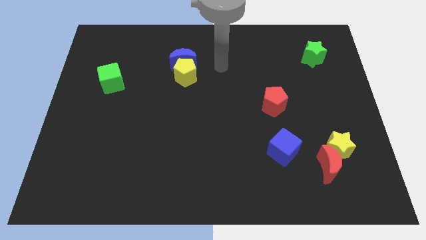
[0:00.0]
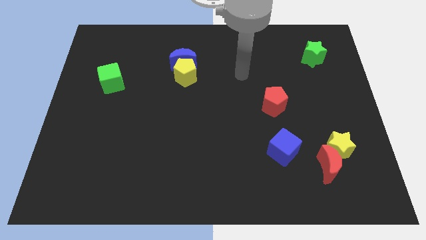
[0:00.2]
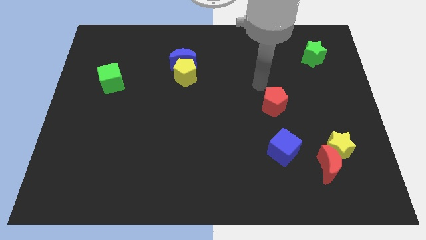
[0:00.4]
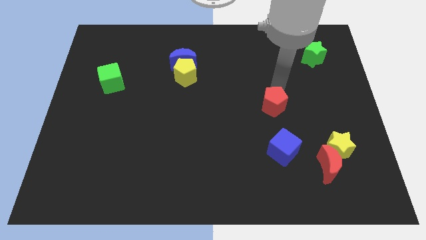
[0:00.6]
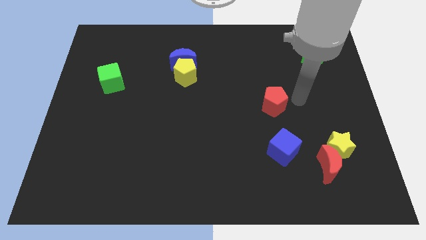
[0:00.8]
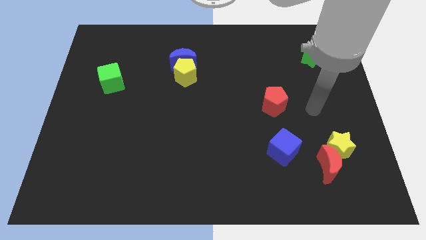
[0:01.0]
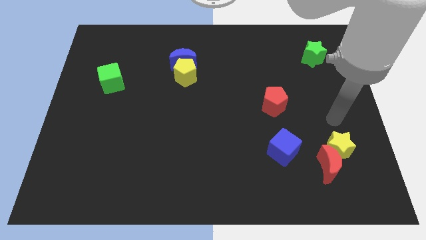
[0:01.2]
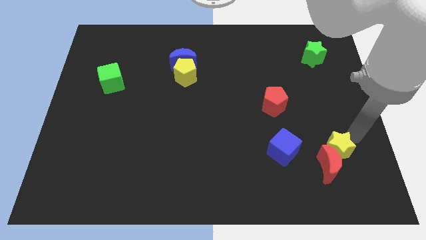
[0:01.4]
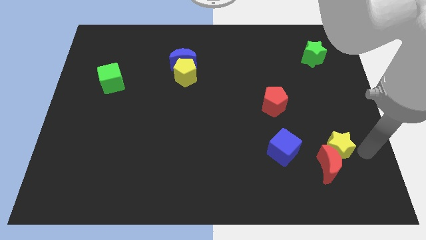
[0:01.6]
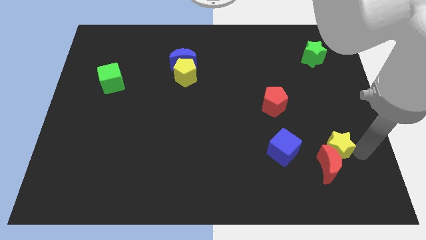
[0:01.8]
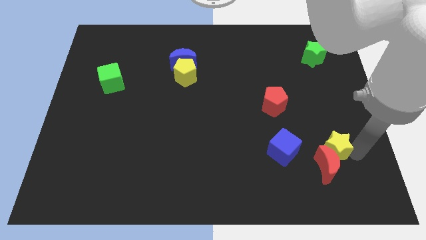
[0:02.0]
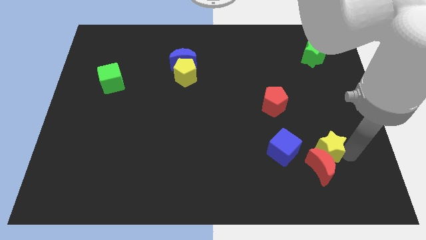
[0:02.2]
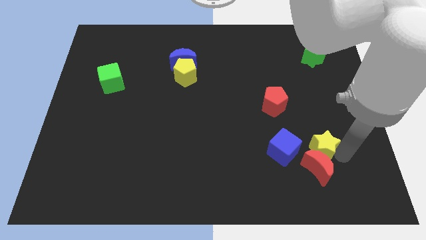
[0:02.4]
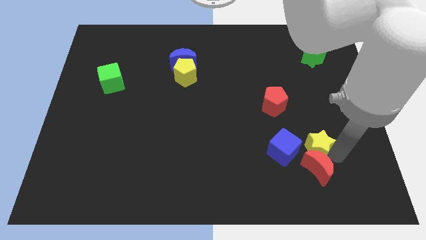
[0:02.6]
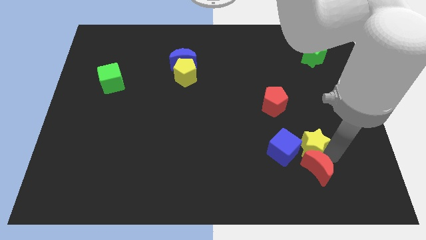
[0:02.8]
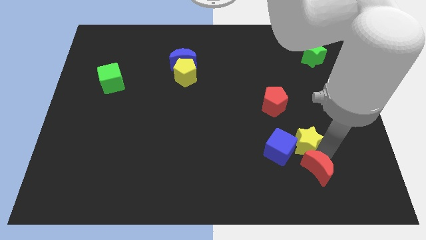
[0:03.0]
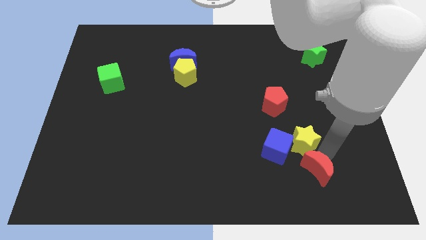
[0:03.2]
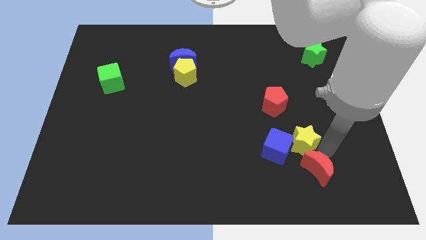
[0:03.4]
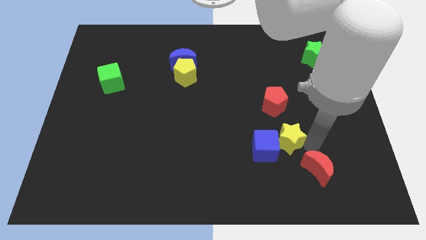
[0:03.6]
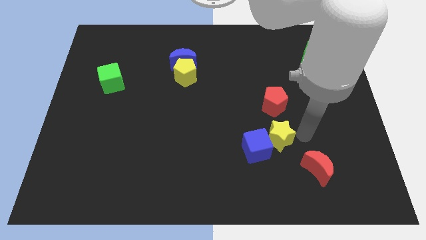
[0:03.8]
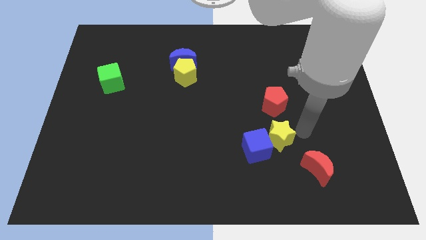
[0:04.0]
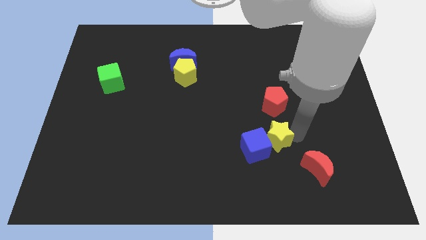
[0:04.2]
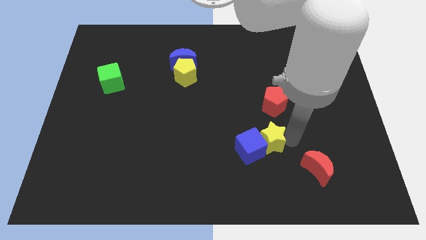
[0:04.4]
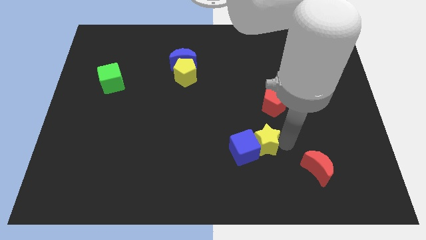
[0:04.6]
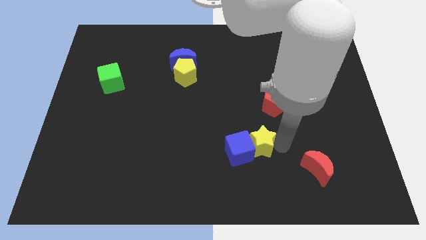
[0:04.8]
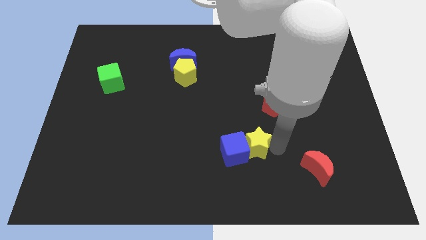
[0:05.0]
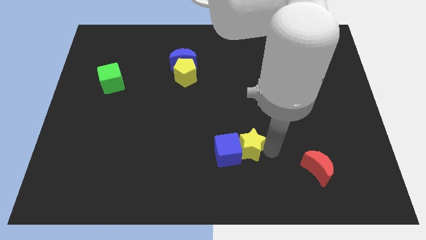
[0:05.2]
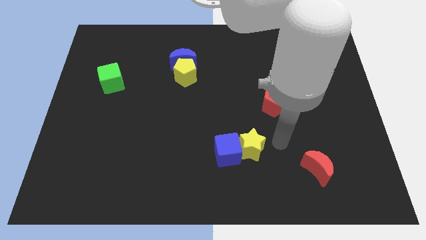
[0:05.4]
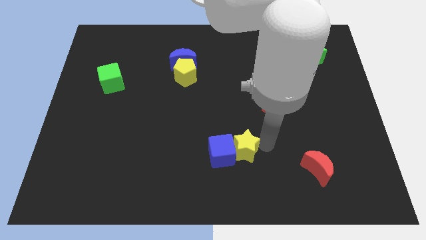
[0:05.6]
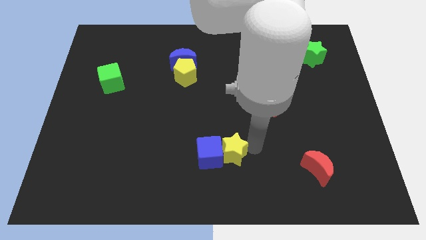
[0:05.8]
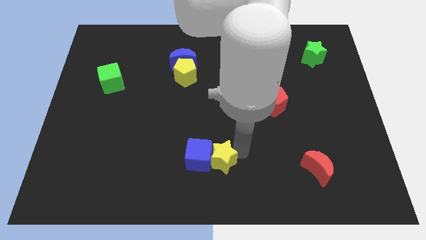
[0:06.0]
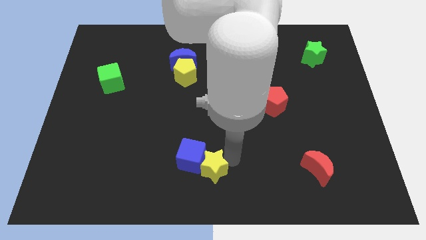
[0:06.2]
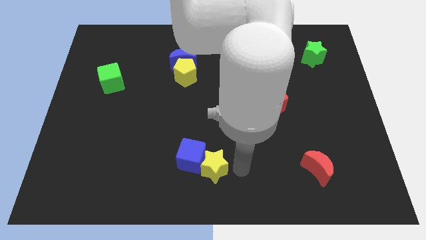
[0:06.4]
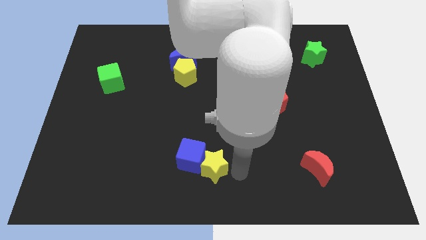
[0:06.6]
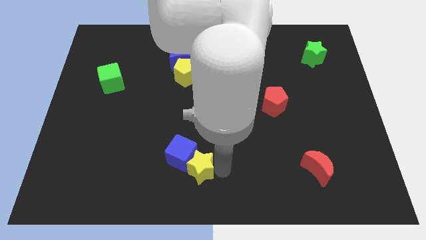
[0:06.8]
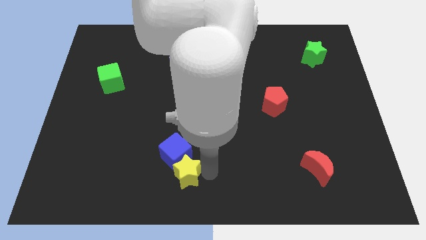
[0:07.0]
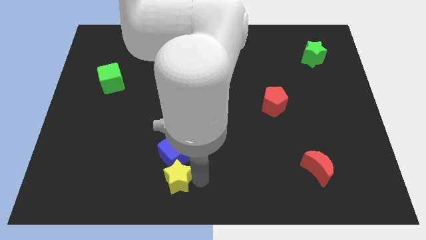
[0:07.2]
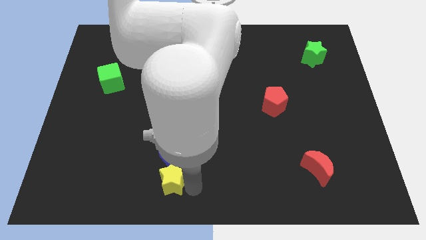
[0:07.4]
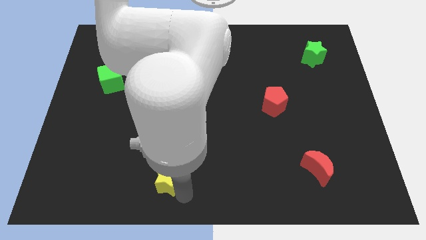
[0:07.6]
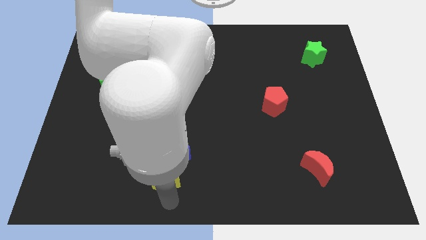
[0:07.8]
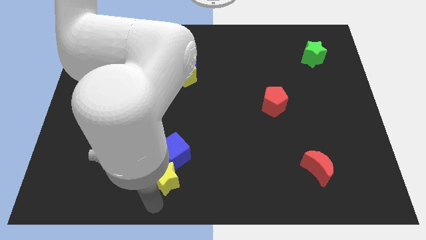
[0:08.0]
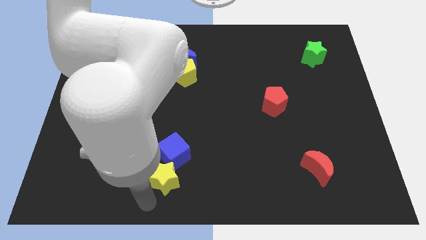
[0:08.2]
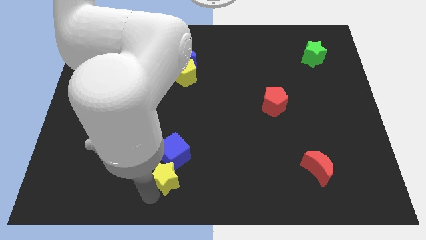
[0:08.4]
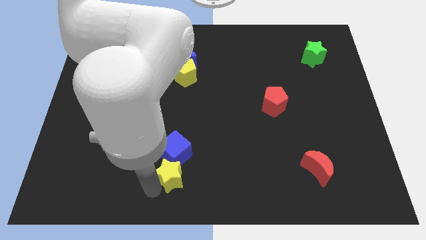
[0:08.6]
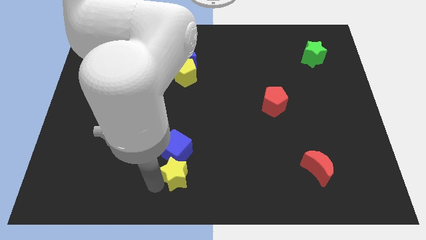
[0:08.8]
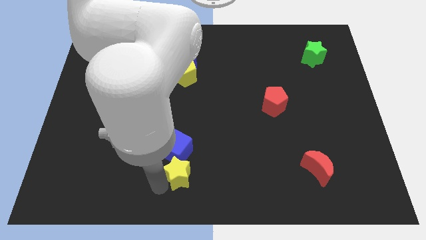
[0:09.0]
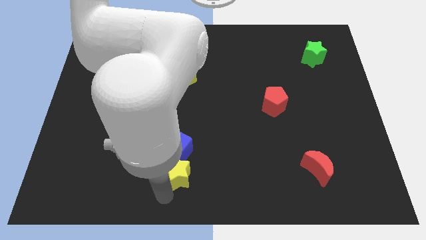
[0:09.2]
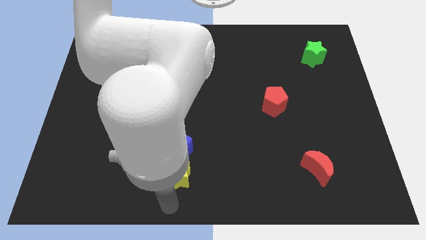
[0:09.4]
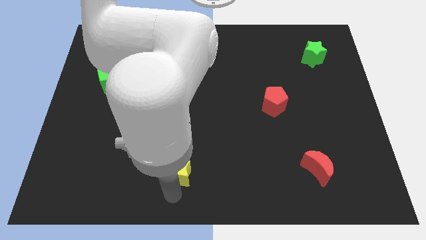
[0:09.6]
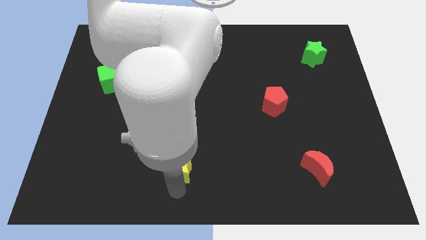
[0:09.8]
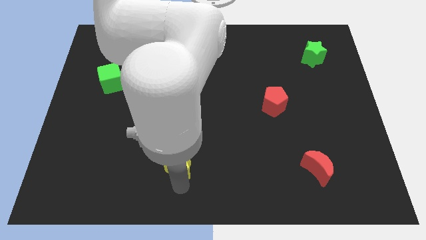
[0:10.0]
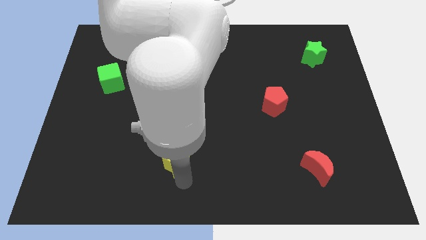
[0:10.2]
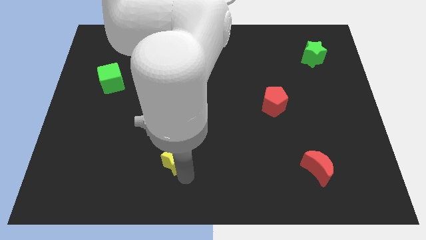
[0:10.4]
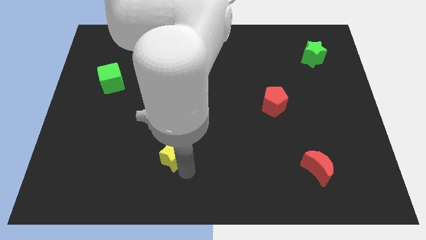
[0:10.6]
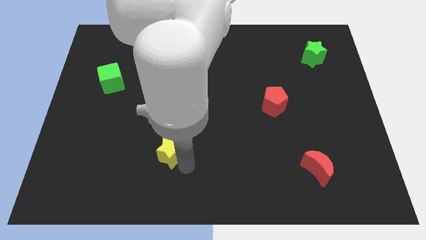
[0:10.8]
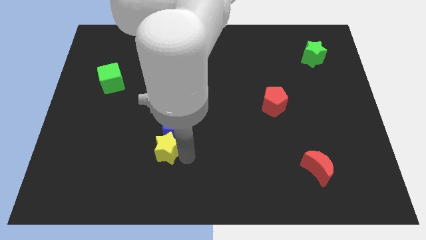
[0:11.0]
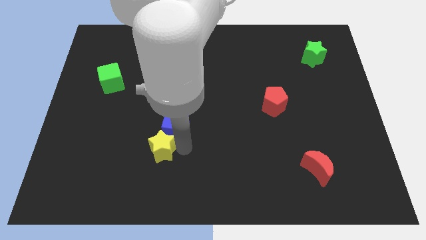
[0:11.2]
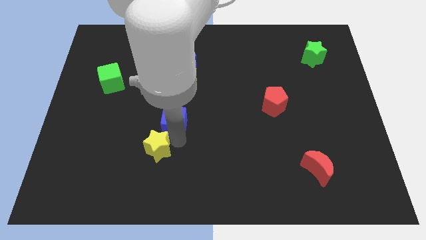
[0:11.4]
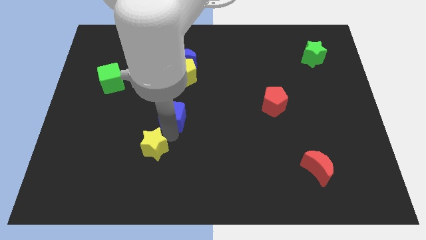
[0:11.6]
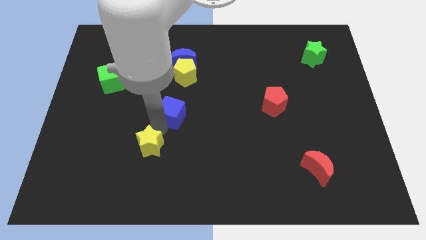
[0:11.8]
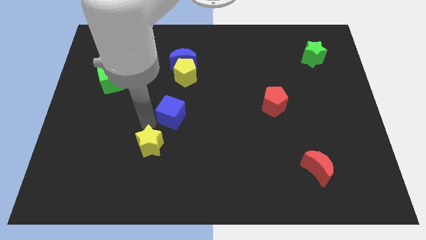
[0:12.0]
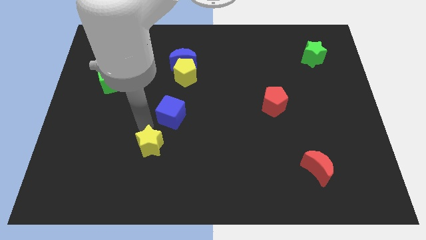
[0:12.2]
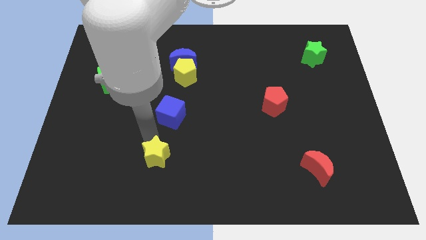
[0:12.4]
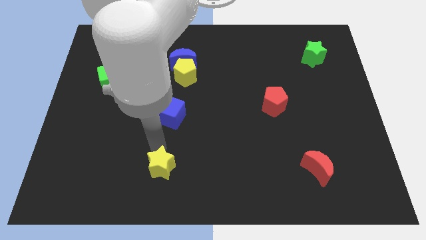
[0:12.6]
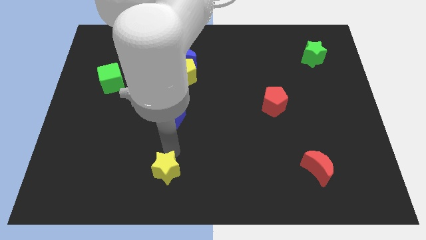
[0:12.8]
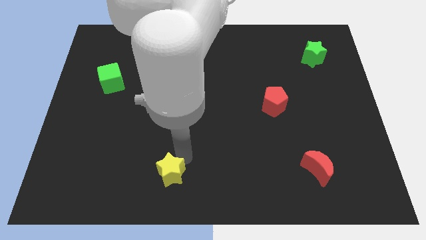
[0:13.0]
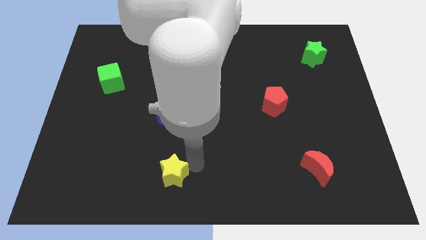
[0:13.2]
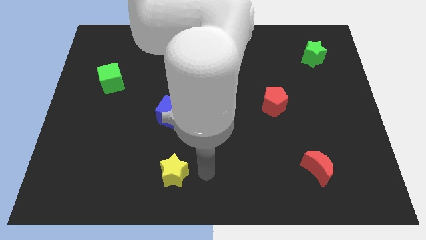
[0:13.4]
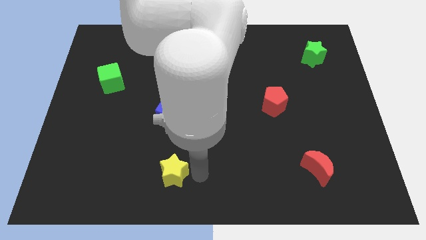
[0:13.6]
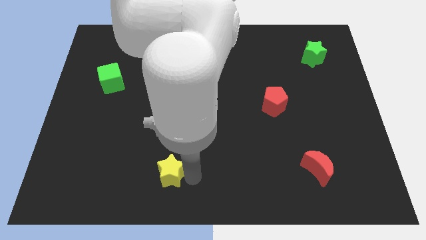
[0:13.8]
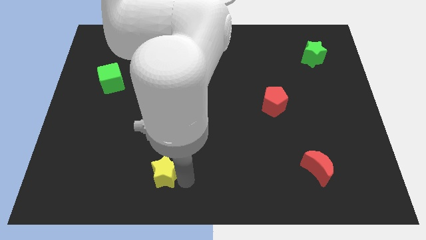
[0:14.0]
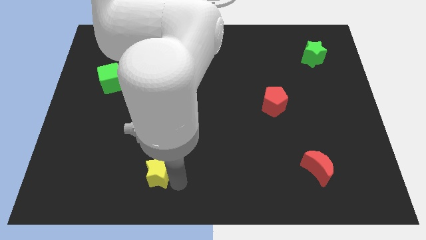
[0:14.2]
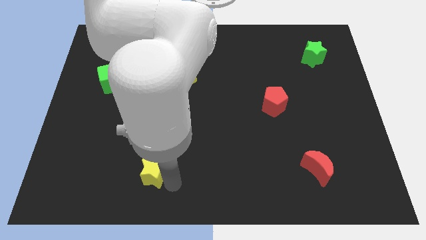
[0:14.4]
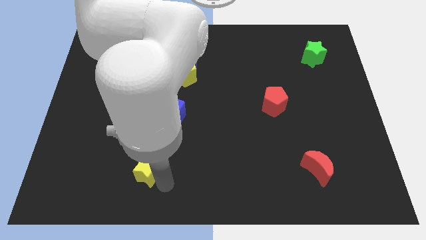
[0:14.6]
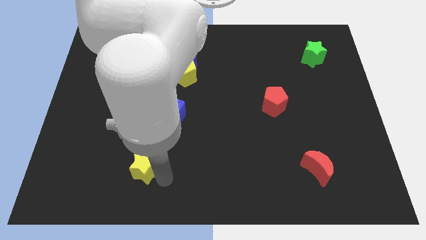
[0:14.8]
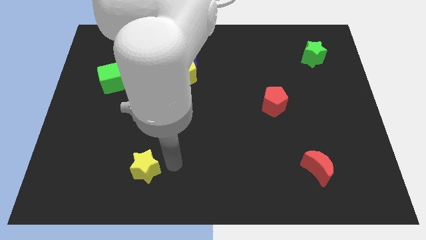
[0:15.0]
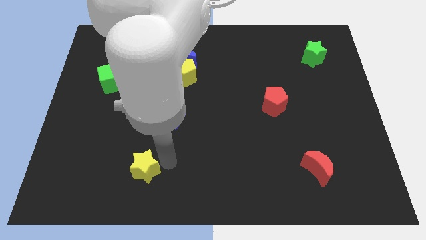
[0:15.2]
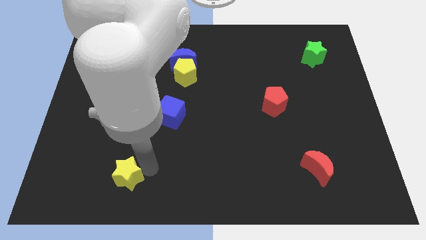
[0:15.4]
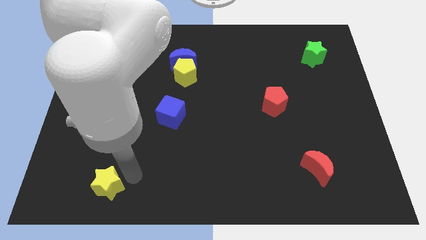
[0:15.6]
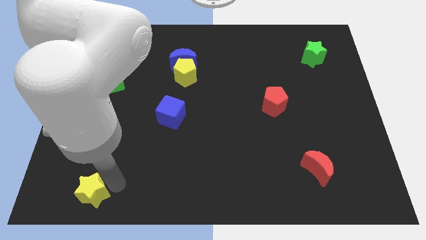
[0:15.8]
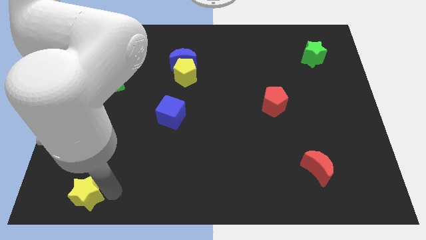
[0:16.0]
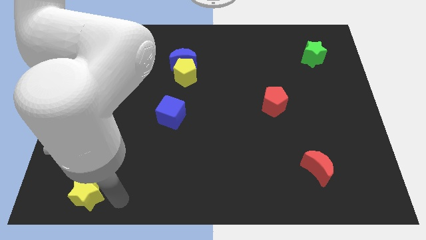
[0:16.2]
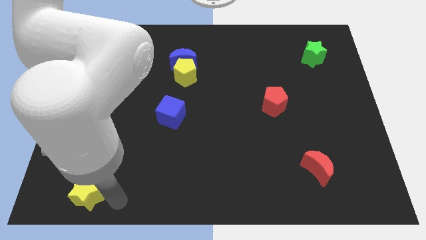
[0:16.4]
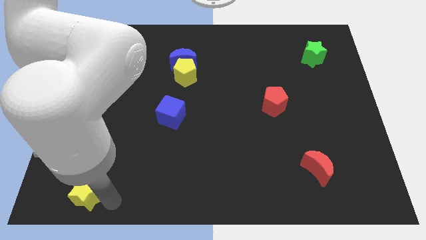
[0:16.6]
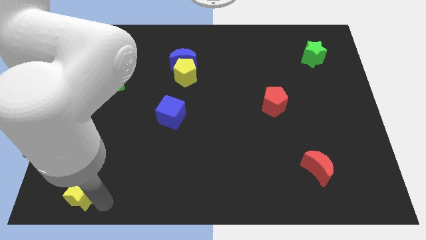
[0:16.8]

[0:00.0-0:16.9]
move the yellow star to the bottom left of the board
